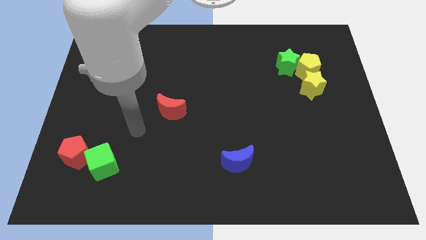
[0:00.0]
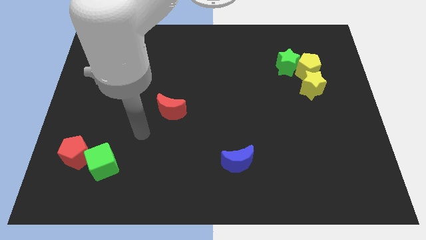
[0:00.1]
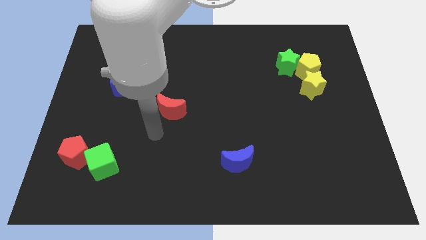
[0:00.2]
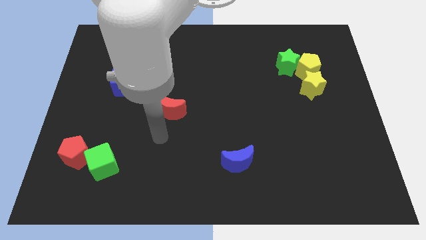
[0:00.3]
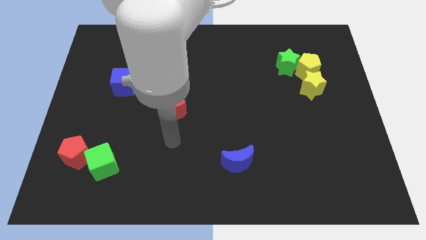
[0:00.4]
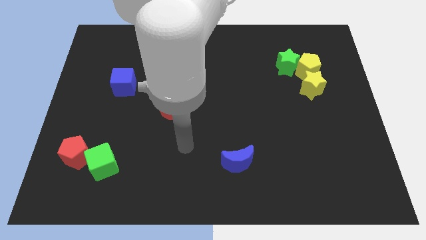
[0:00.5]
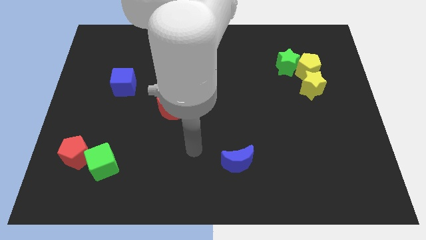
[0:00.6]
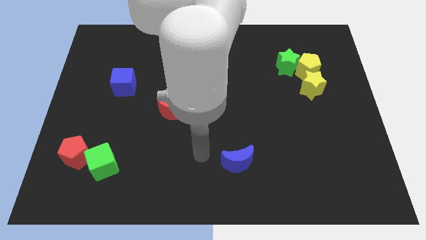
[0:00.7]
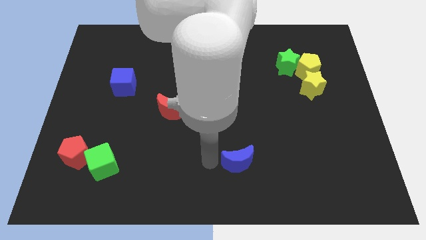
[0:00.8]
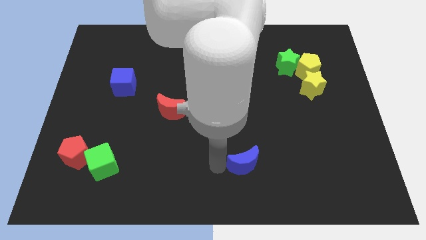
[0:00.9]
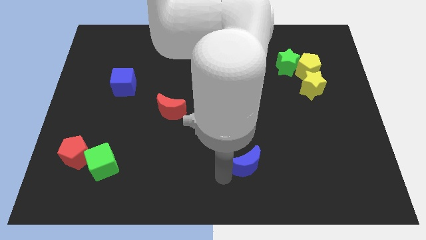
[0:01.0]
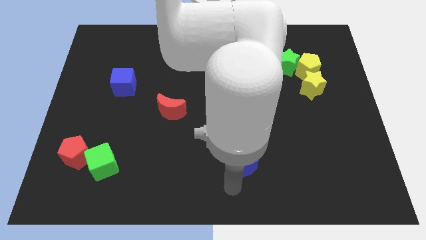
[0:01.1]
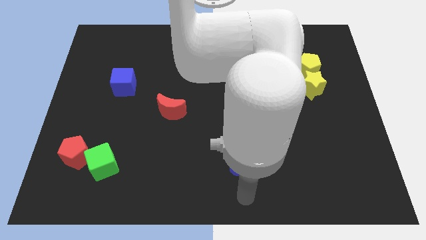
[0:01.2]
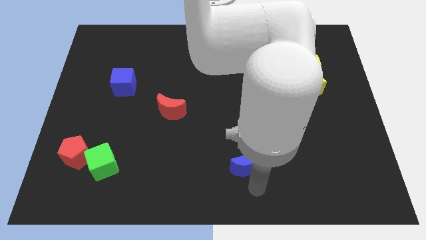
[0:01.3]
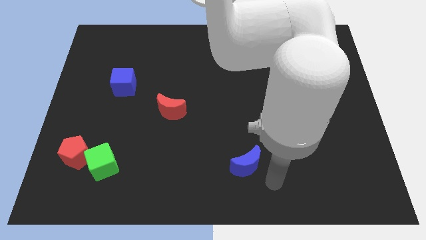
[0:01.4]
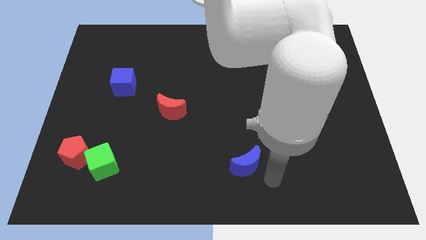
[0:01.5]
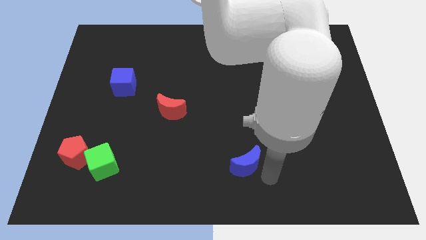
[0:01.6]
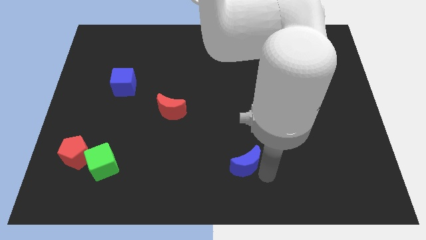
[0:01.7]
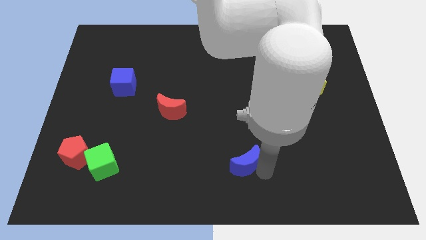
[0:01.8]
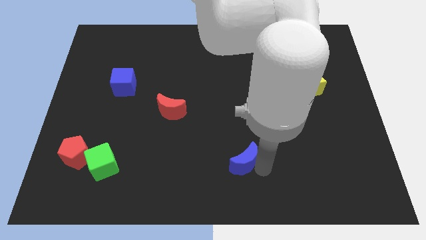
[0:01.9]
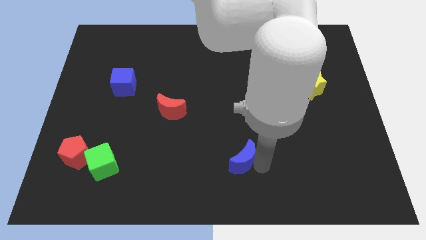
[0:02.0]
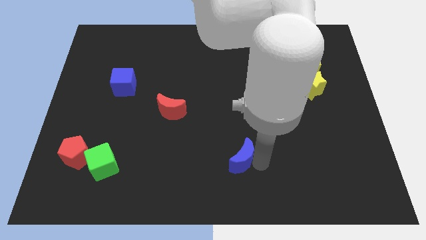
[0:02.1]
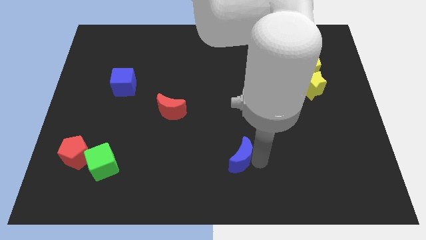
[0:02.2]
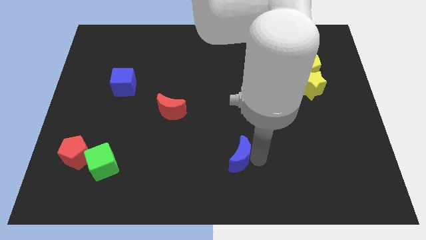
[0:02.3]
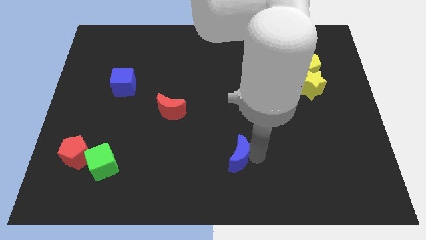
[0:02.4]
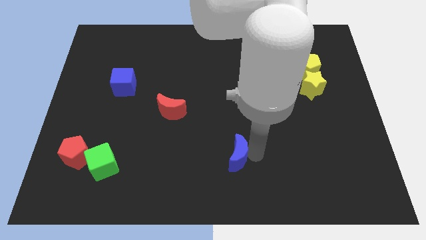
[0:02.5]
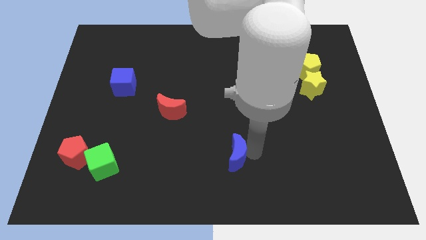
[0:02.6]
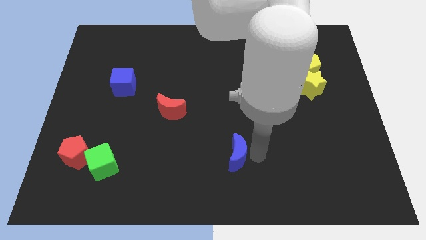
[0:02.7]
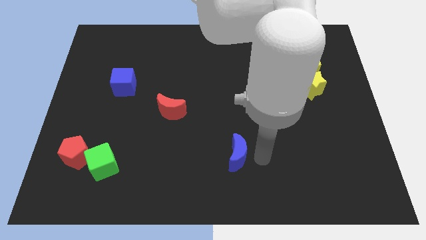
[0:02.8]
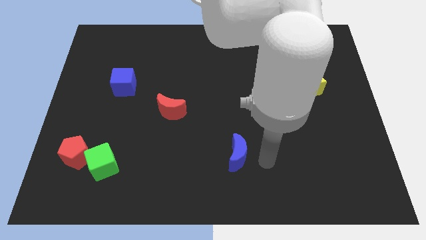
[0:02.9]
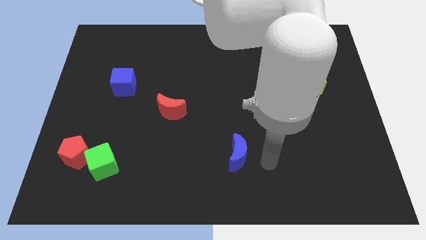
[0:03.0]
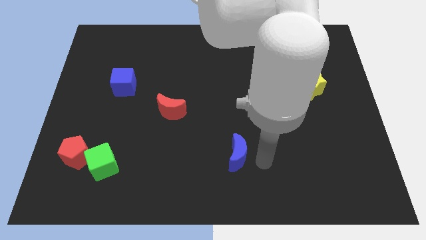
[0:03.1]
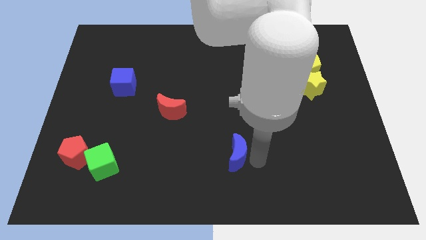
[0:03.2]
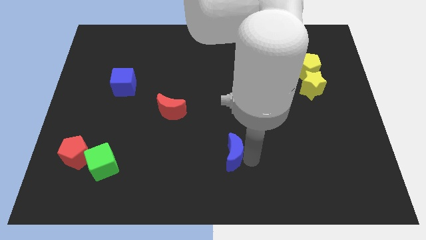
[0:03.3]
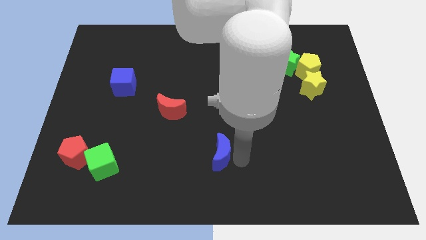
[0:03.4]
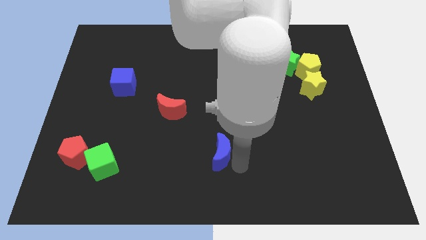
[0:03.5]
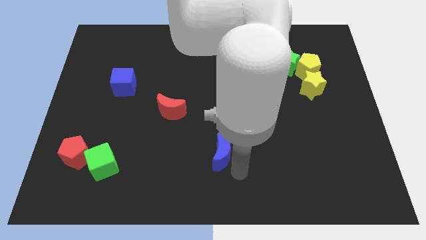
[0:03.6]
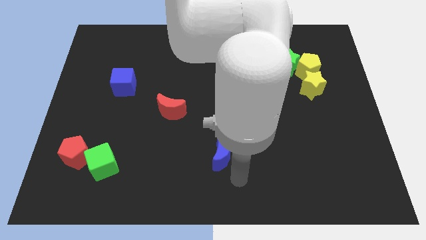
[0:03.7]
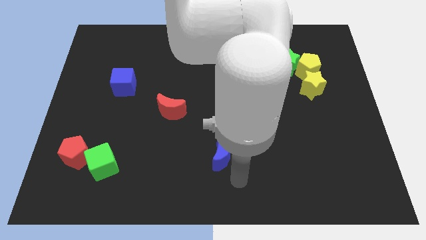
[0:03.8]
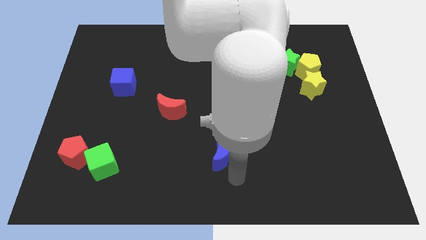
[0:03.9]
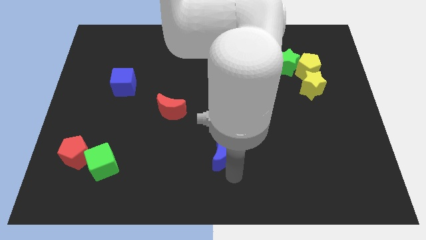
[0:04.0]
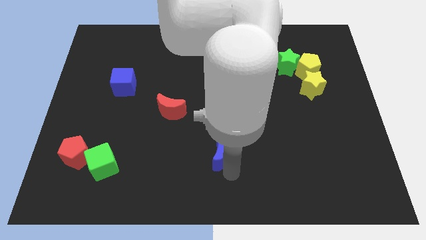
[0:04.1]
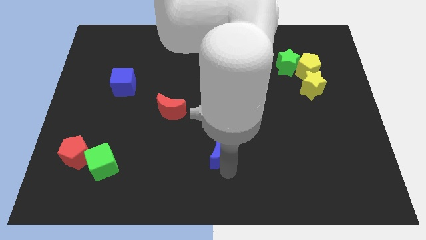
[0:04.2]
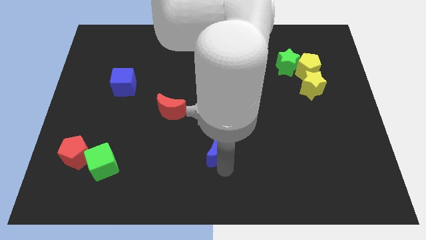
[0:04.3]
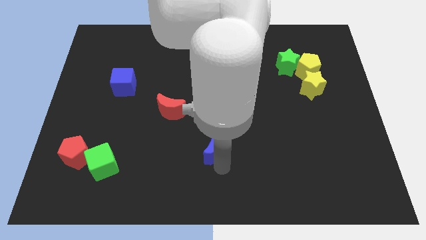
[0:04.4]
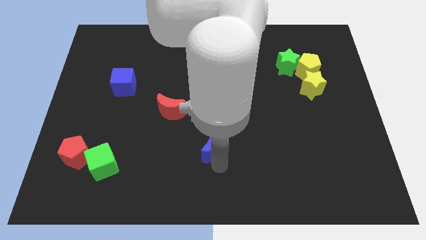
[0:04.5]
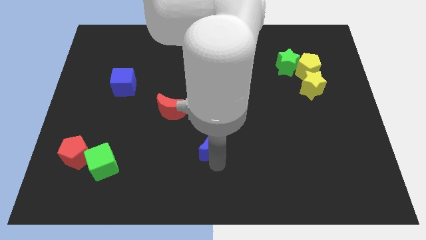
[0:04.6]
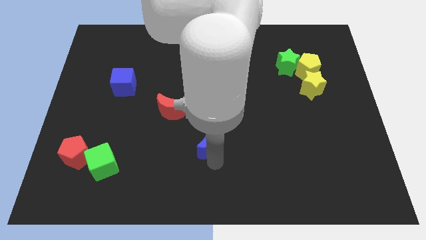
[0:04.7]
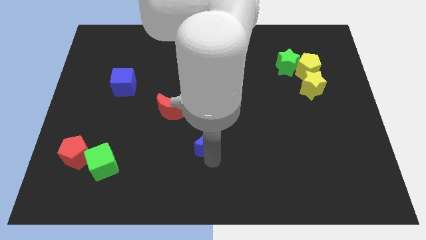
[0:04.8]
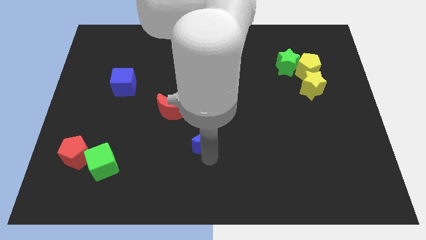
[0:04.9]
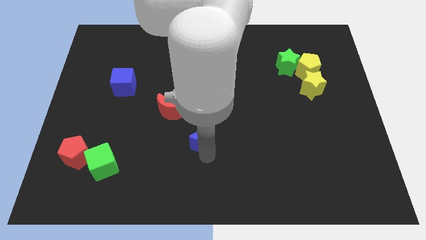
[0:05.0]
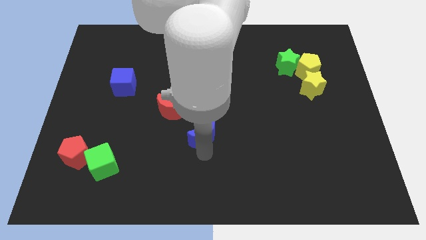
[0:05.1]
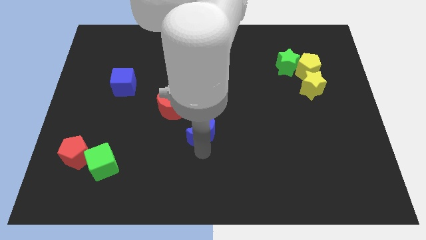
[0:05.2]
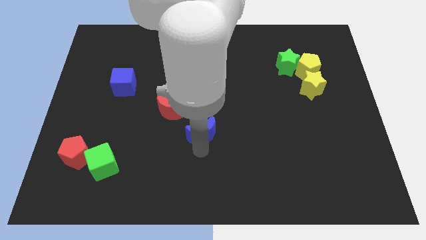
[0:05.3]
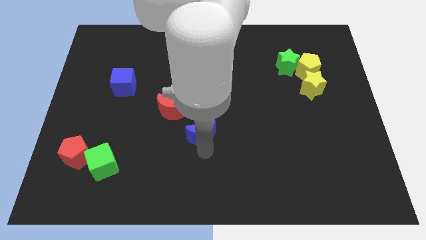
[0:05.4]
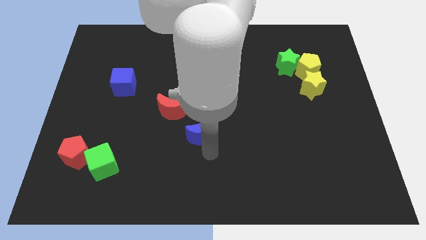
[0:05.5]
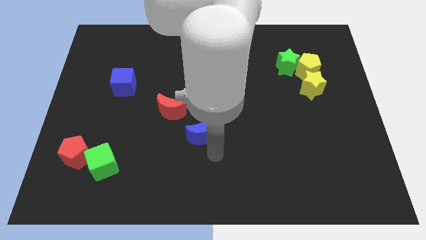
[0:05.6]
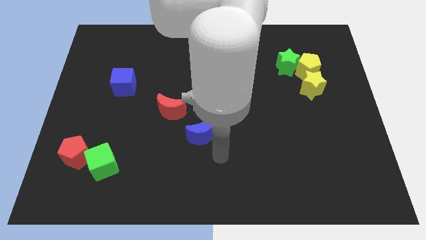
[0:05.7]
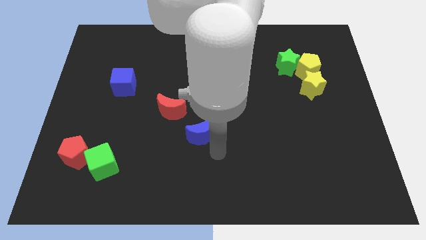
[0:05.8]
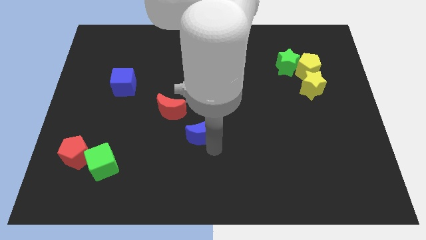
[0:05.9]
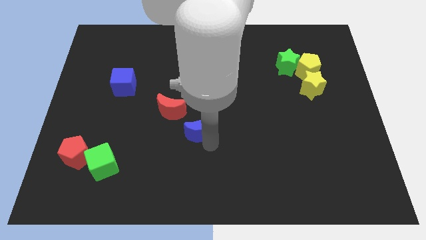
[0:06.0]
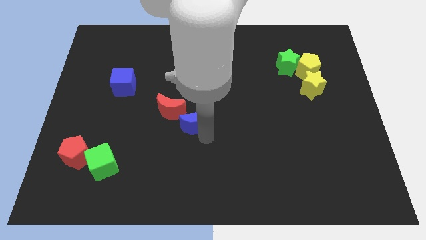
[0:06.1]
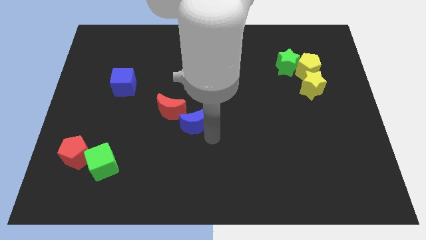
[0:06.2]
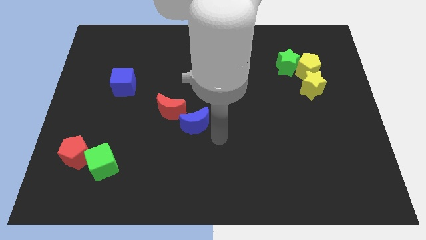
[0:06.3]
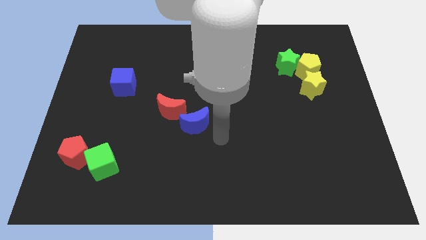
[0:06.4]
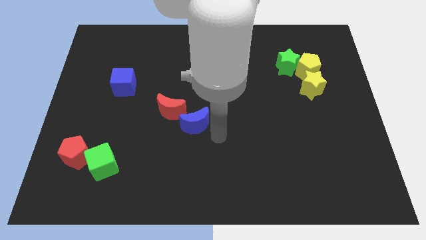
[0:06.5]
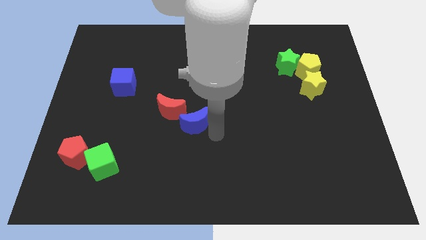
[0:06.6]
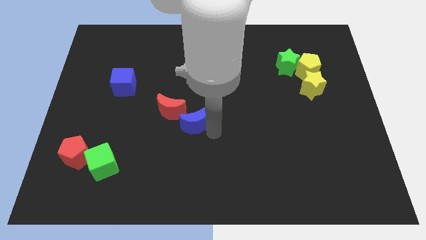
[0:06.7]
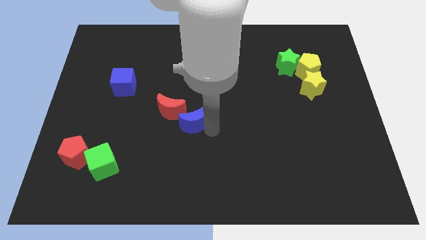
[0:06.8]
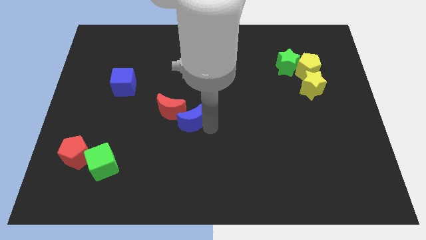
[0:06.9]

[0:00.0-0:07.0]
push the blue moon to the red moon
